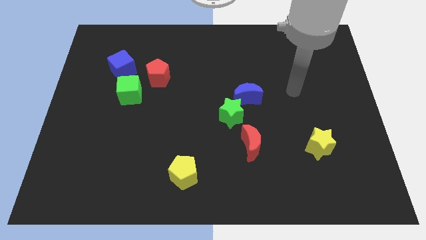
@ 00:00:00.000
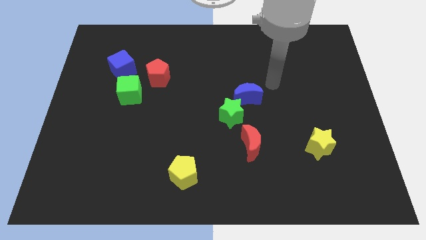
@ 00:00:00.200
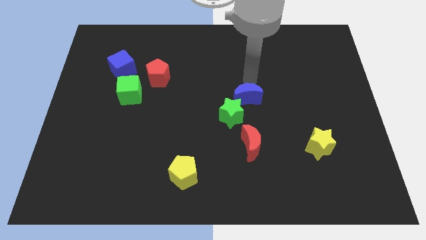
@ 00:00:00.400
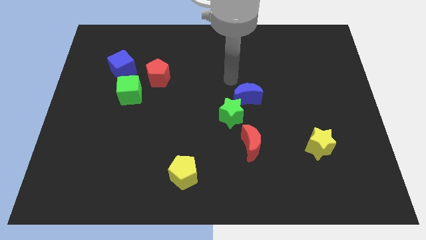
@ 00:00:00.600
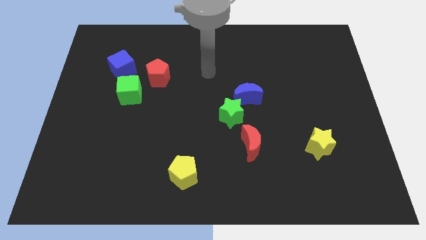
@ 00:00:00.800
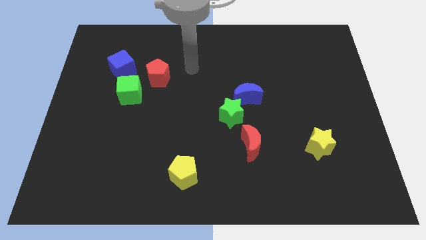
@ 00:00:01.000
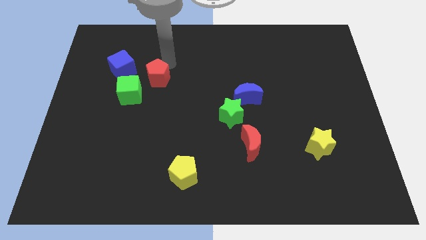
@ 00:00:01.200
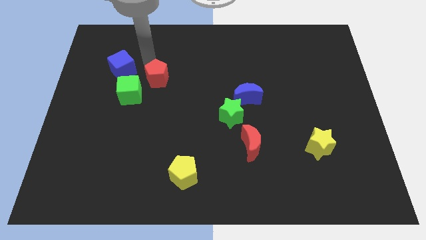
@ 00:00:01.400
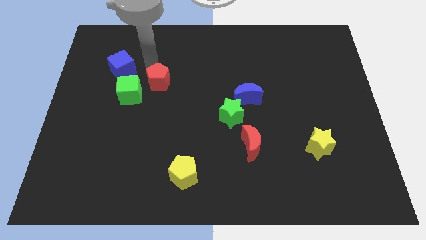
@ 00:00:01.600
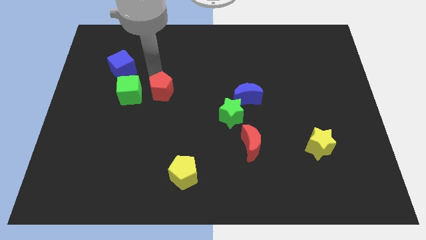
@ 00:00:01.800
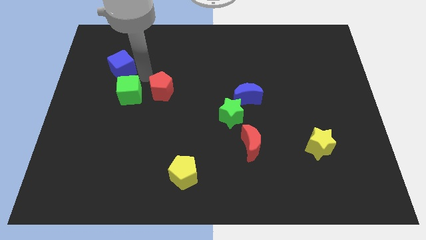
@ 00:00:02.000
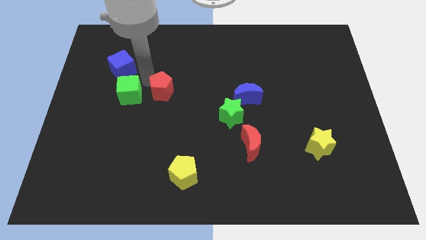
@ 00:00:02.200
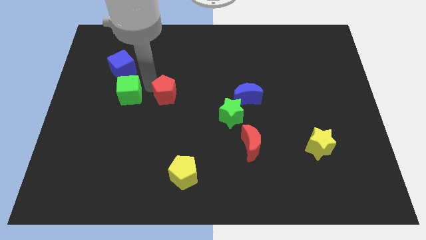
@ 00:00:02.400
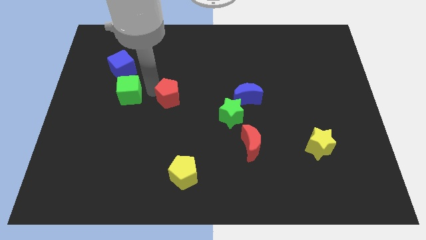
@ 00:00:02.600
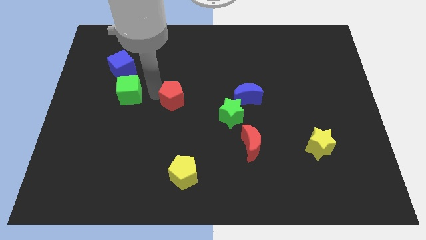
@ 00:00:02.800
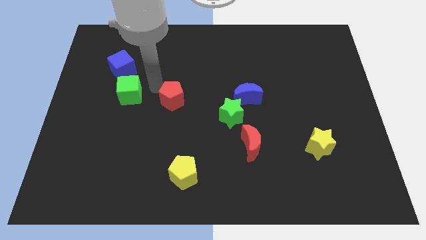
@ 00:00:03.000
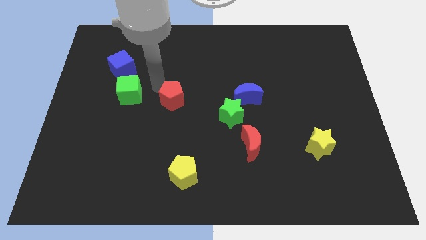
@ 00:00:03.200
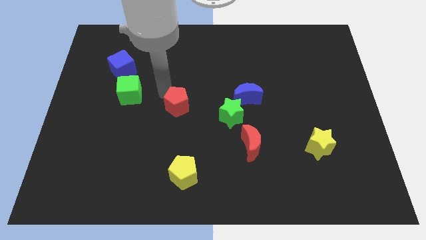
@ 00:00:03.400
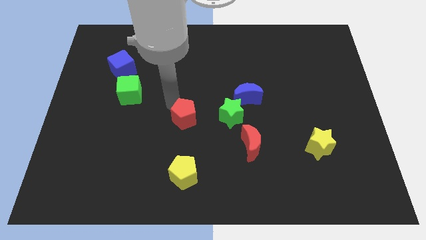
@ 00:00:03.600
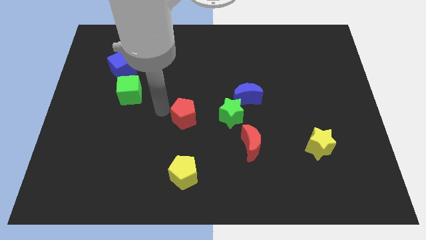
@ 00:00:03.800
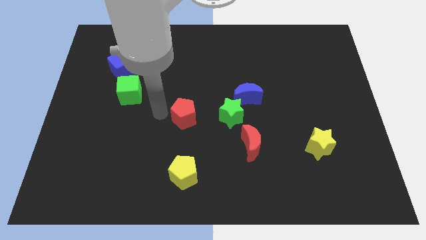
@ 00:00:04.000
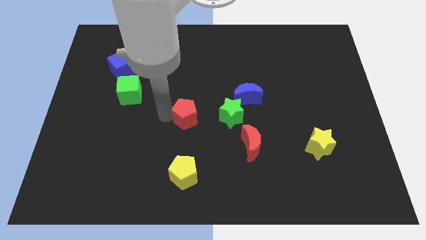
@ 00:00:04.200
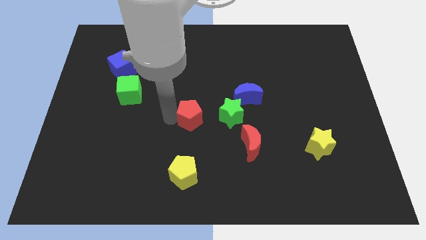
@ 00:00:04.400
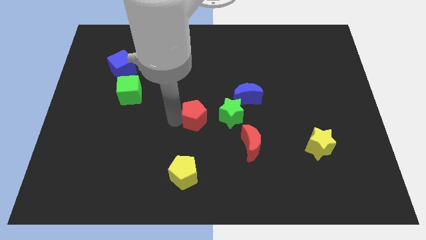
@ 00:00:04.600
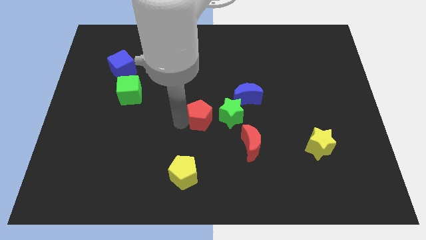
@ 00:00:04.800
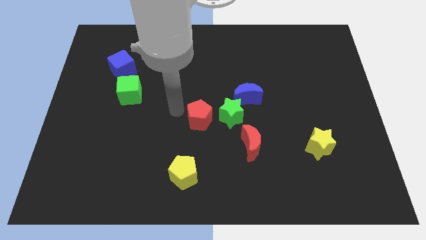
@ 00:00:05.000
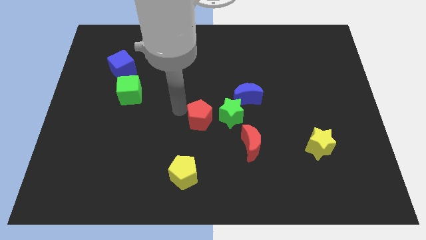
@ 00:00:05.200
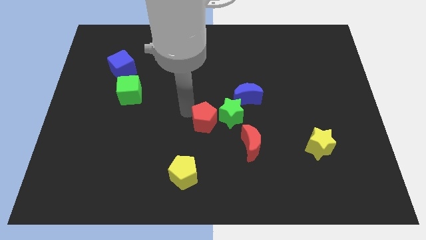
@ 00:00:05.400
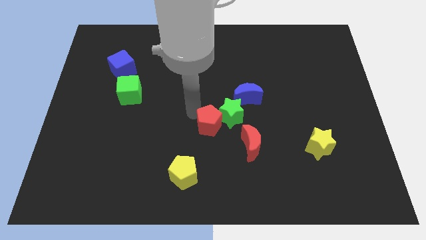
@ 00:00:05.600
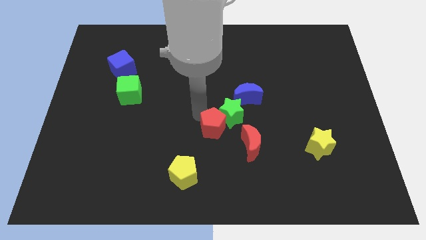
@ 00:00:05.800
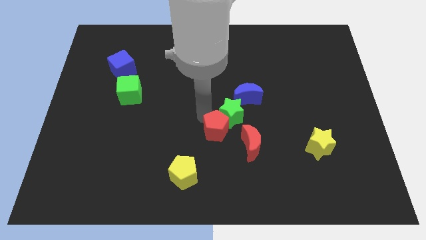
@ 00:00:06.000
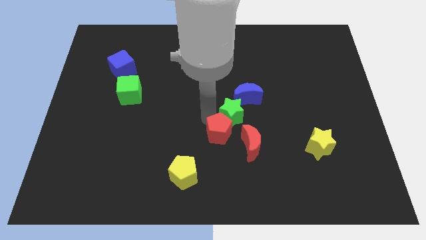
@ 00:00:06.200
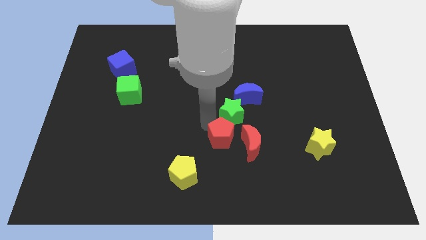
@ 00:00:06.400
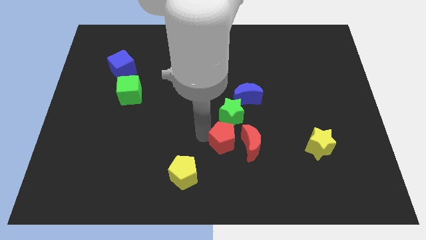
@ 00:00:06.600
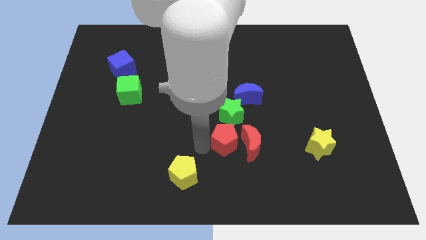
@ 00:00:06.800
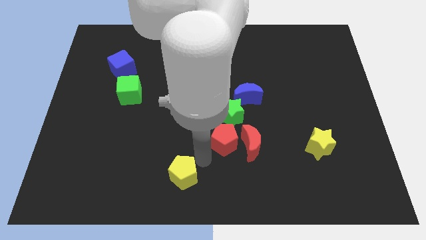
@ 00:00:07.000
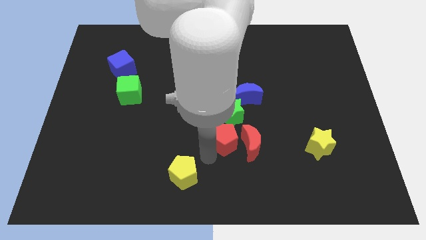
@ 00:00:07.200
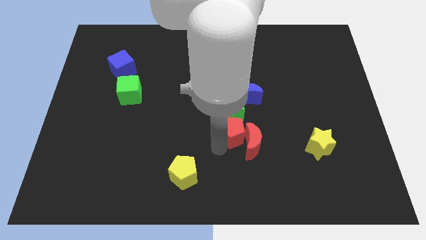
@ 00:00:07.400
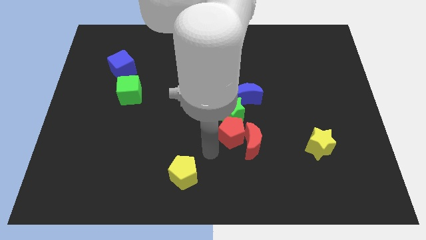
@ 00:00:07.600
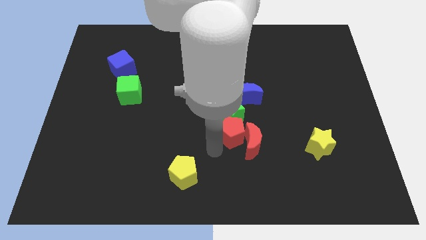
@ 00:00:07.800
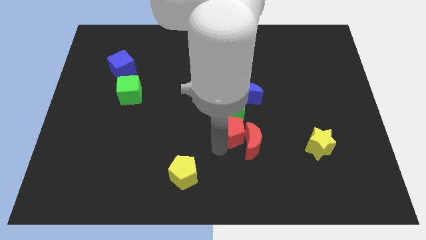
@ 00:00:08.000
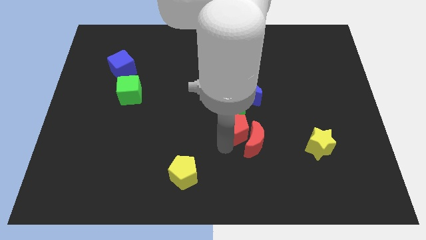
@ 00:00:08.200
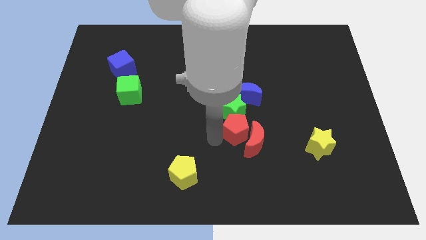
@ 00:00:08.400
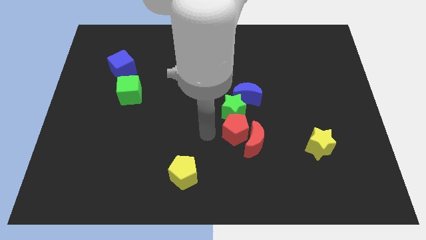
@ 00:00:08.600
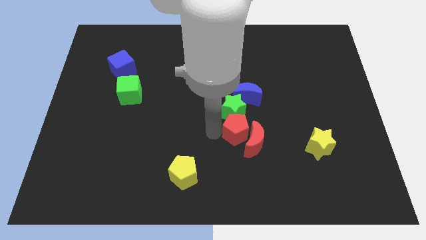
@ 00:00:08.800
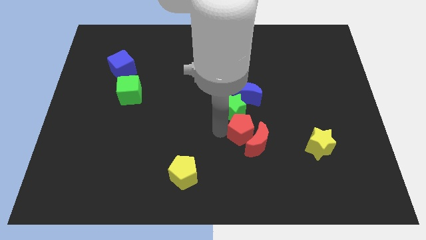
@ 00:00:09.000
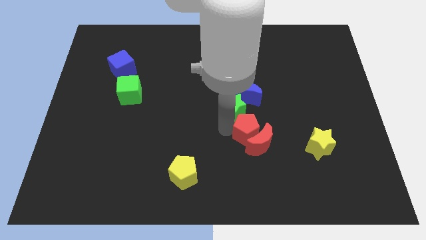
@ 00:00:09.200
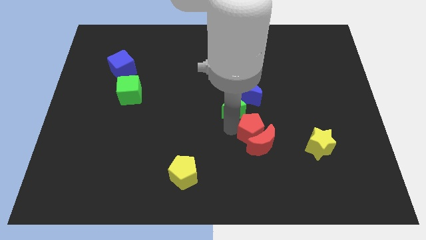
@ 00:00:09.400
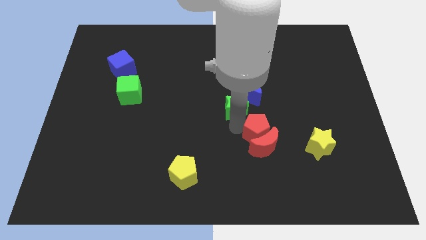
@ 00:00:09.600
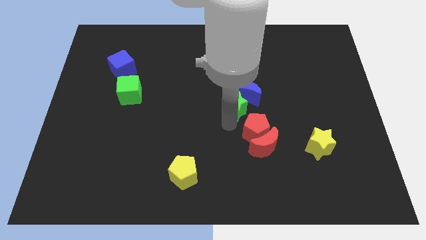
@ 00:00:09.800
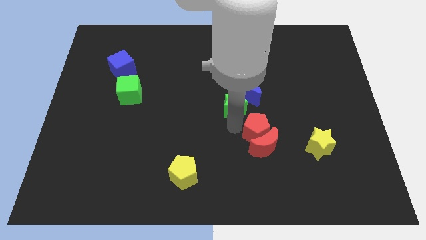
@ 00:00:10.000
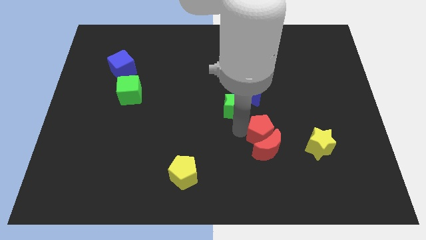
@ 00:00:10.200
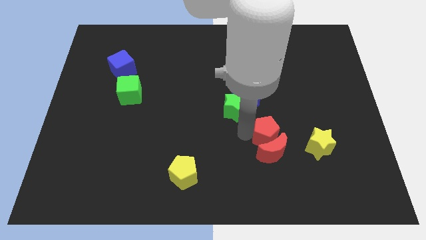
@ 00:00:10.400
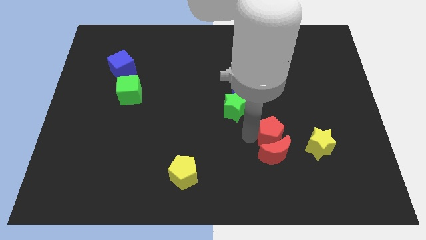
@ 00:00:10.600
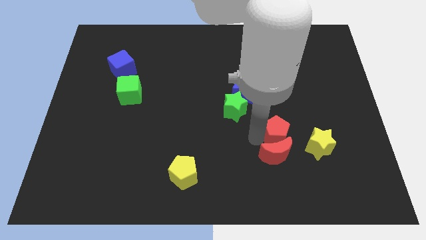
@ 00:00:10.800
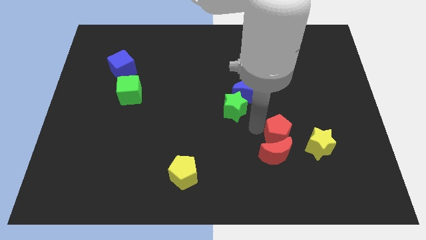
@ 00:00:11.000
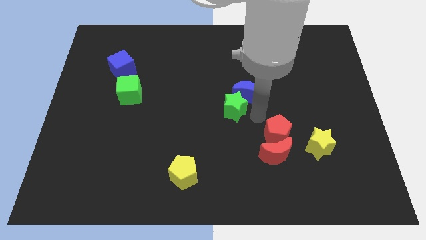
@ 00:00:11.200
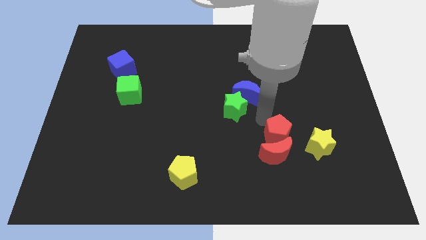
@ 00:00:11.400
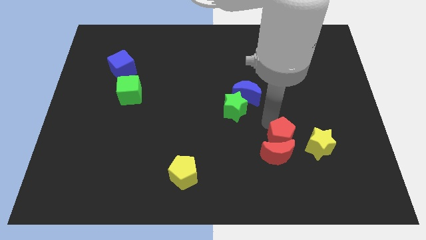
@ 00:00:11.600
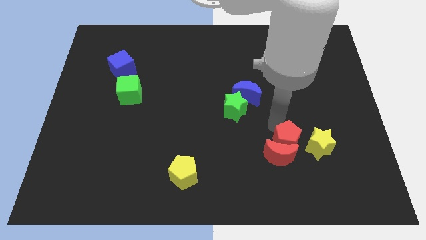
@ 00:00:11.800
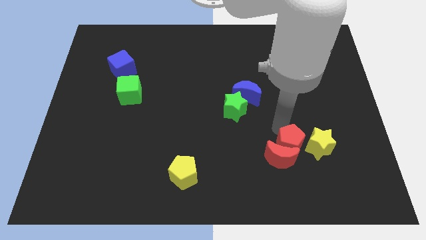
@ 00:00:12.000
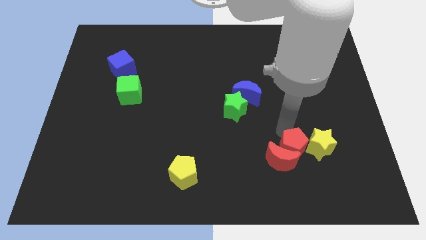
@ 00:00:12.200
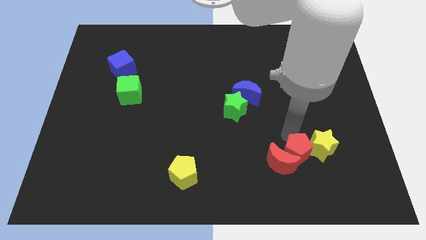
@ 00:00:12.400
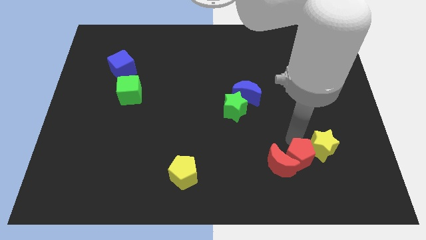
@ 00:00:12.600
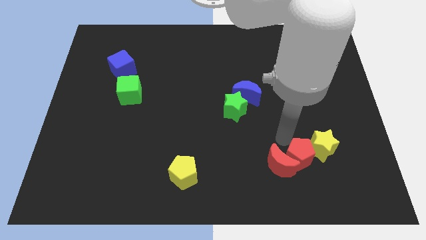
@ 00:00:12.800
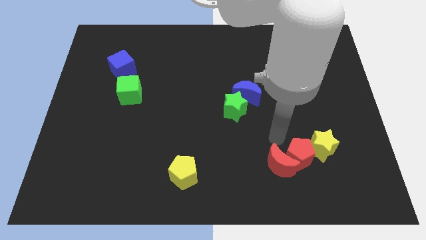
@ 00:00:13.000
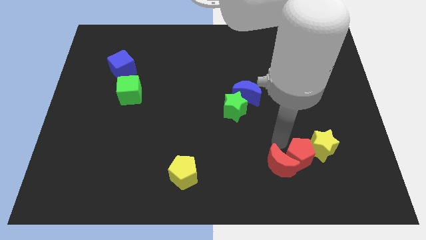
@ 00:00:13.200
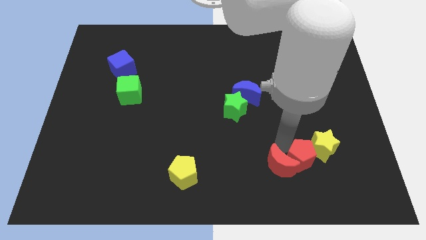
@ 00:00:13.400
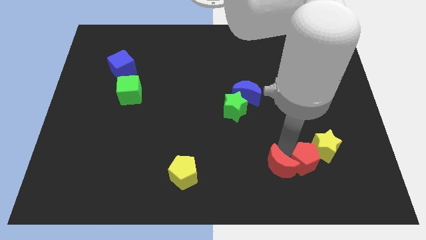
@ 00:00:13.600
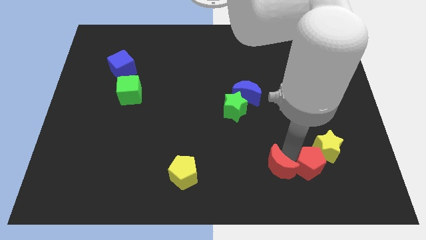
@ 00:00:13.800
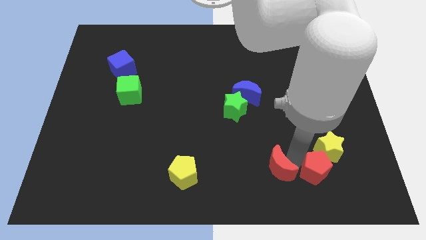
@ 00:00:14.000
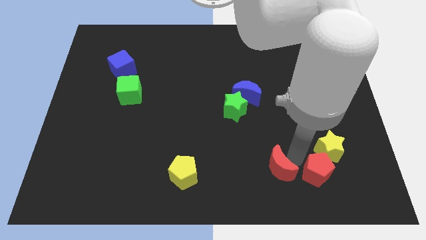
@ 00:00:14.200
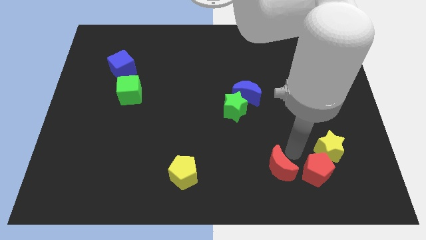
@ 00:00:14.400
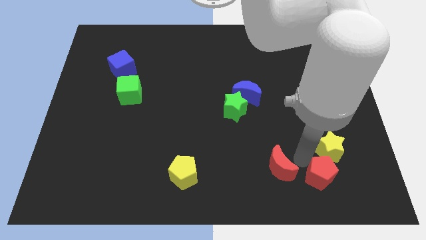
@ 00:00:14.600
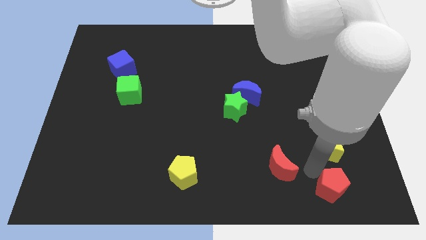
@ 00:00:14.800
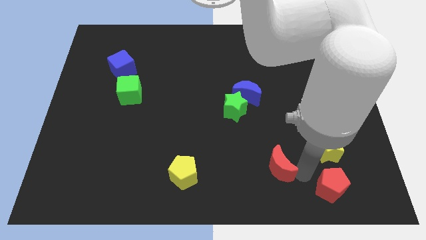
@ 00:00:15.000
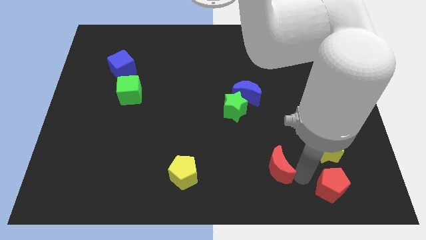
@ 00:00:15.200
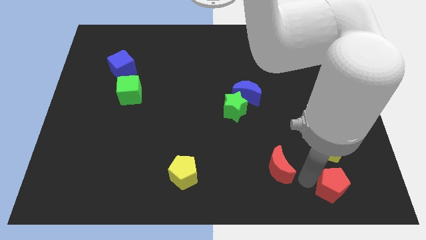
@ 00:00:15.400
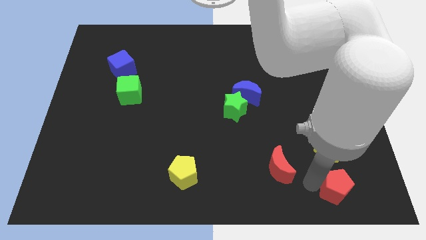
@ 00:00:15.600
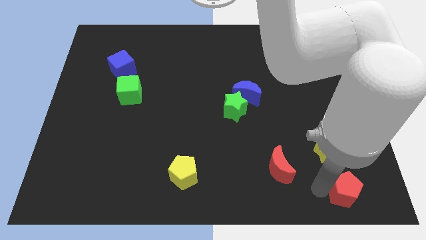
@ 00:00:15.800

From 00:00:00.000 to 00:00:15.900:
slide the red pentagon to the bottom right

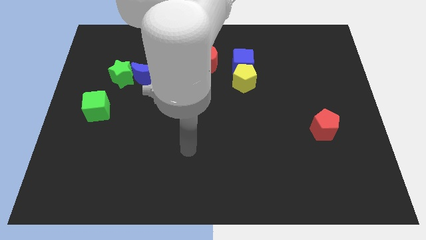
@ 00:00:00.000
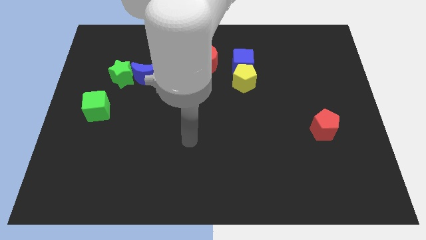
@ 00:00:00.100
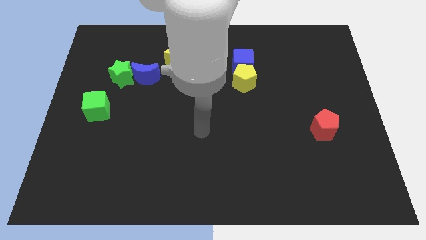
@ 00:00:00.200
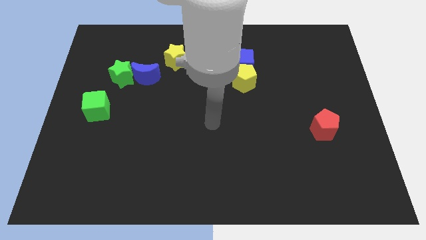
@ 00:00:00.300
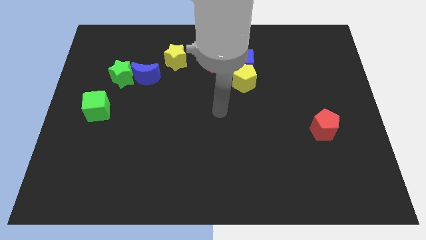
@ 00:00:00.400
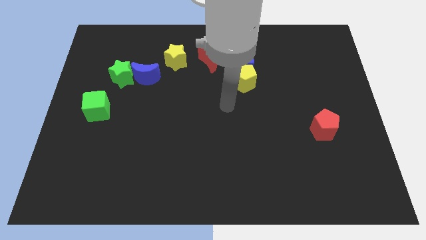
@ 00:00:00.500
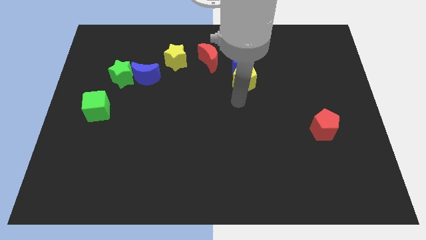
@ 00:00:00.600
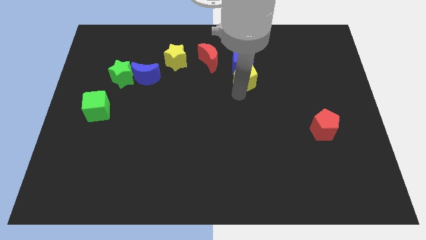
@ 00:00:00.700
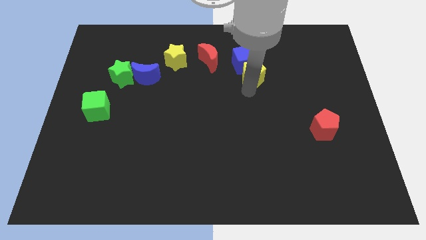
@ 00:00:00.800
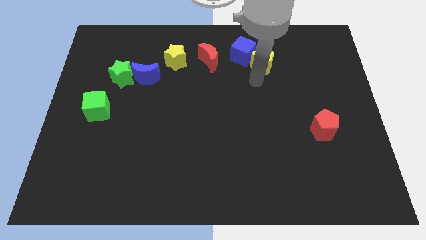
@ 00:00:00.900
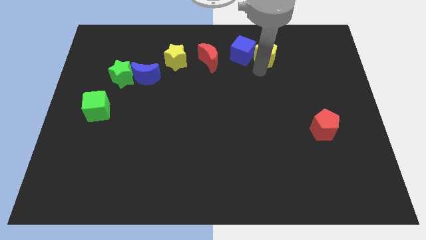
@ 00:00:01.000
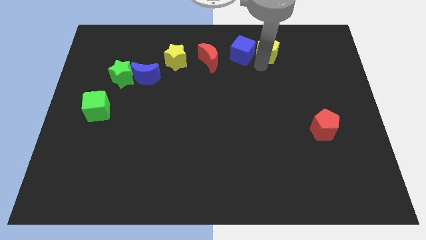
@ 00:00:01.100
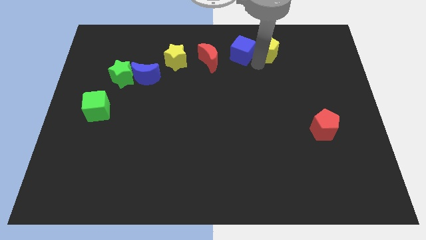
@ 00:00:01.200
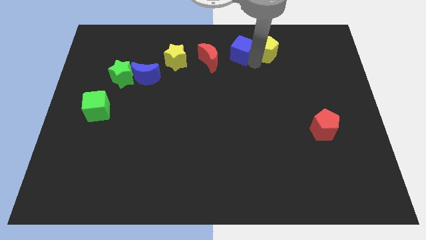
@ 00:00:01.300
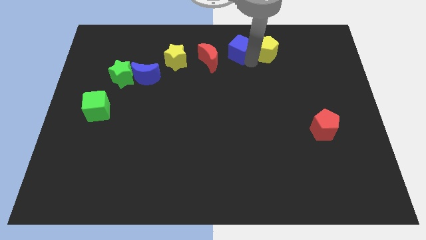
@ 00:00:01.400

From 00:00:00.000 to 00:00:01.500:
put the blue cube to the towards your base
